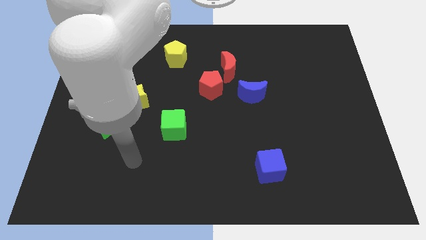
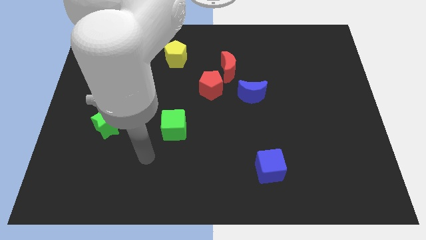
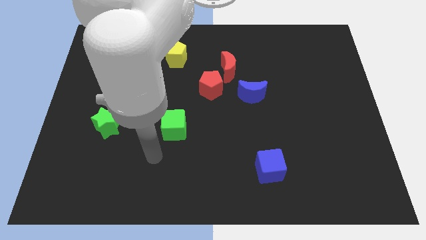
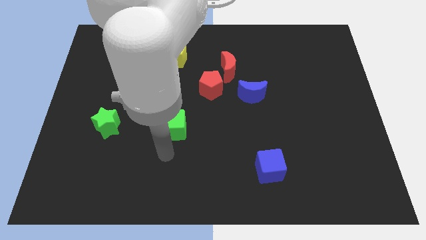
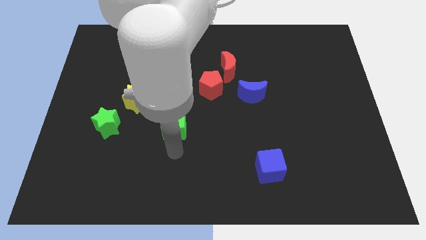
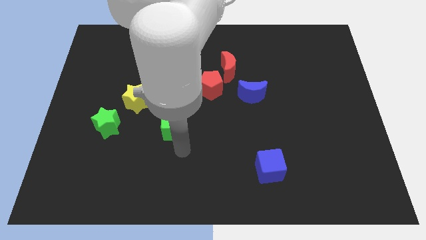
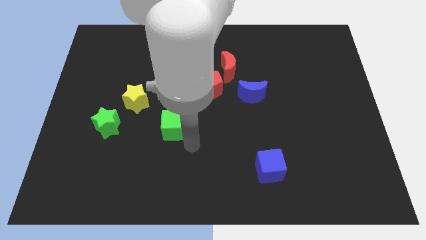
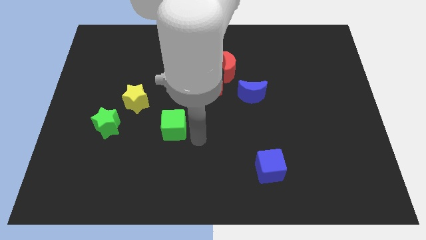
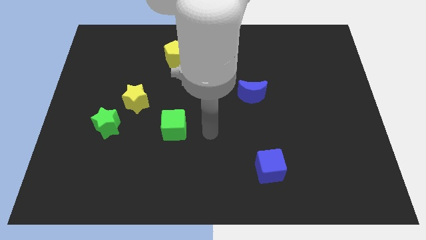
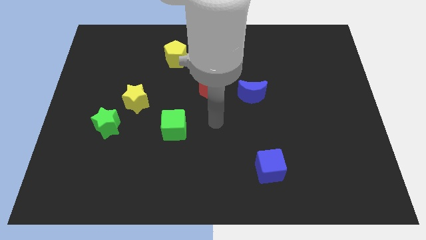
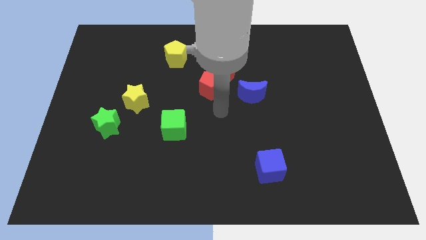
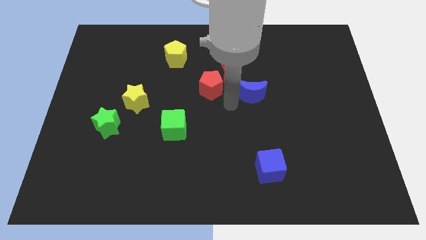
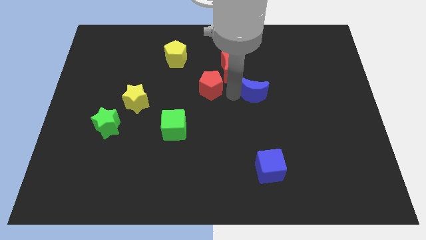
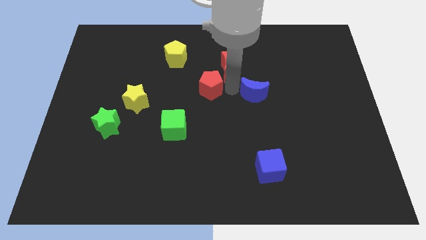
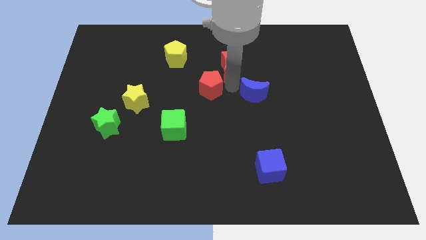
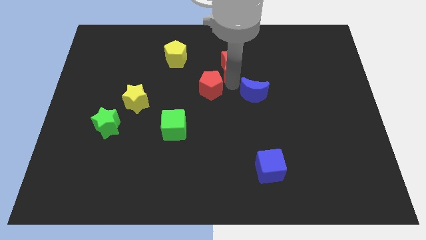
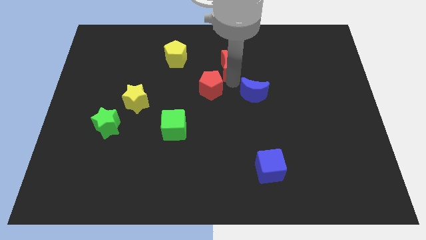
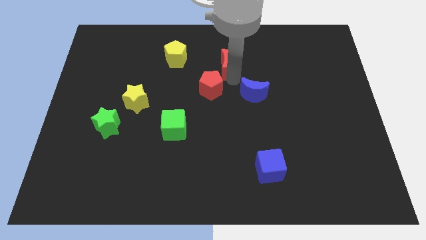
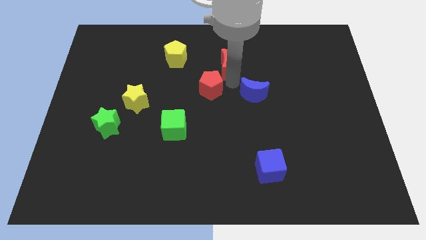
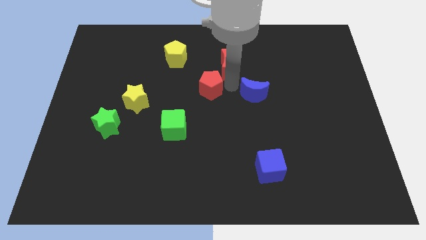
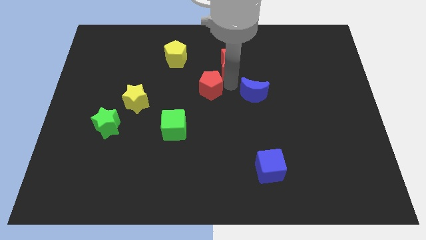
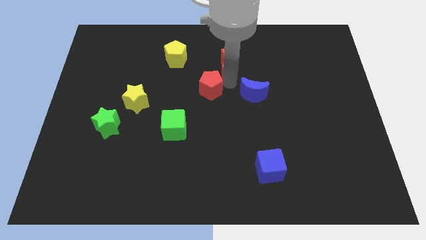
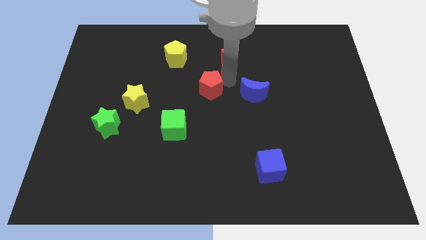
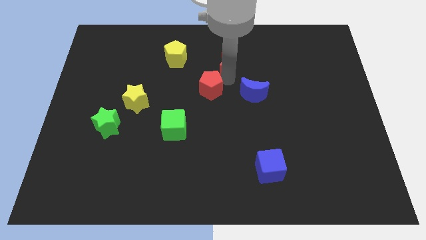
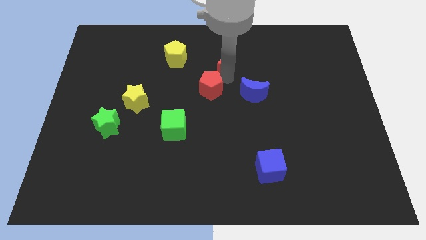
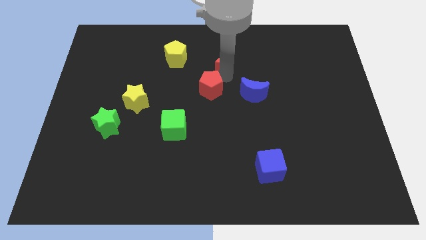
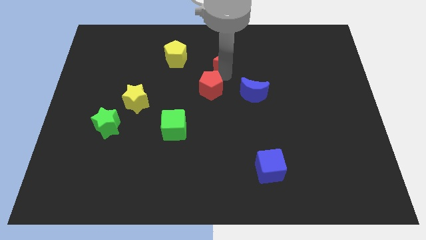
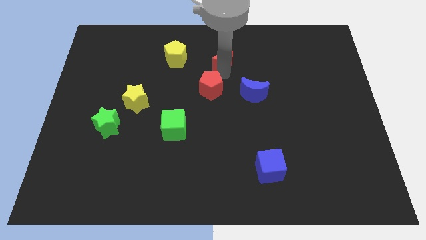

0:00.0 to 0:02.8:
move the red moon away from the red pentagon and blue moon

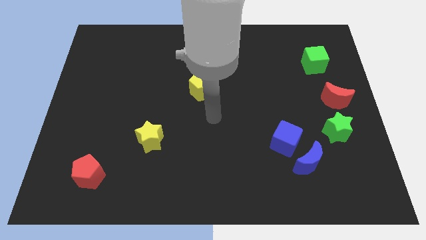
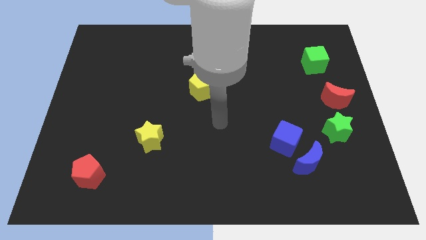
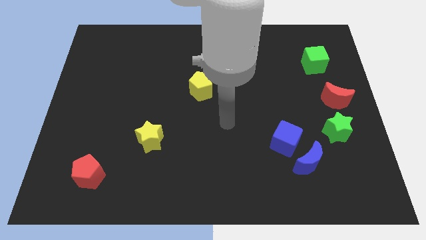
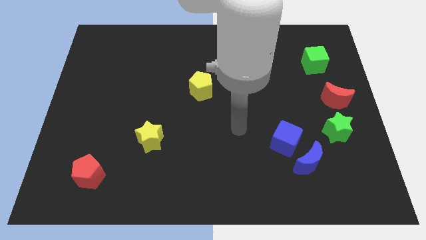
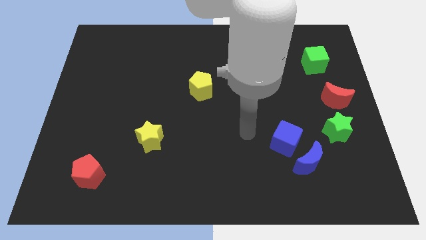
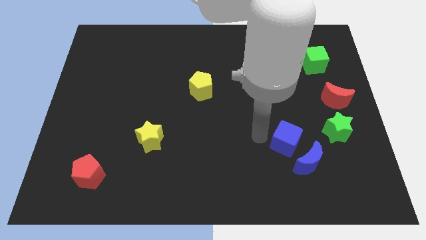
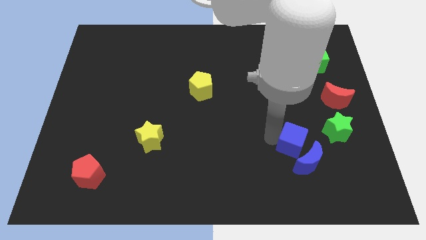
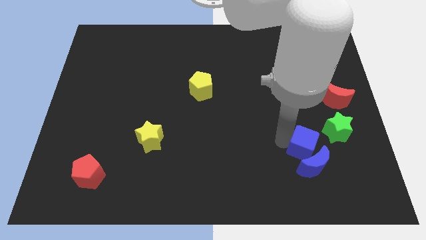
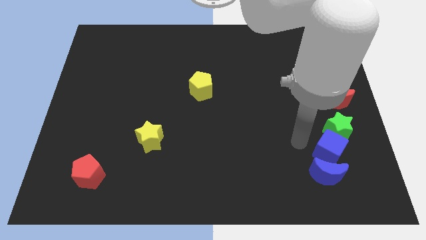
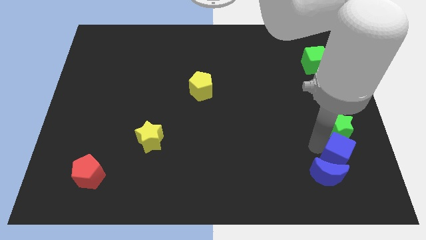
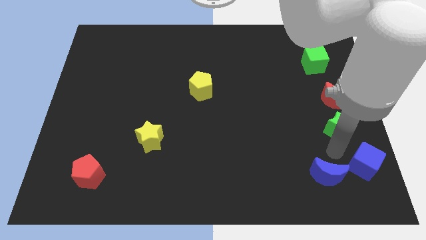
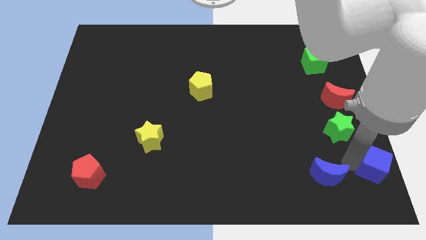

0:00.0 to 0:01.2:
separate the blue moon from the blue cube

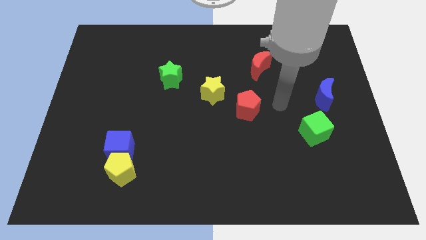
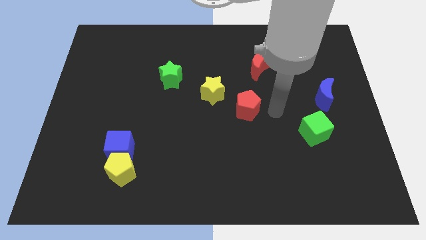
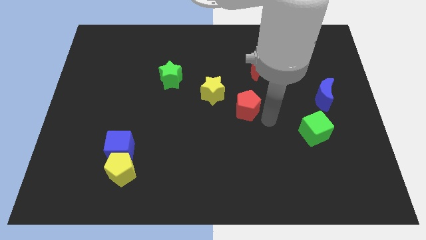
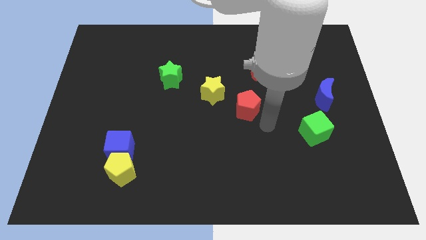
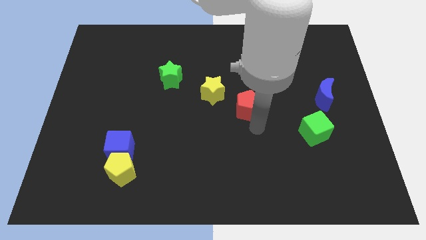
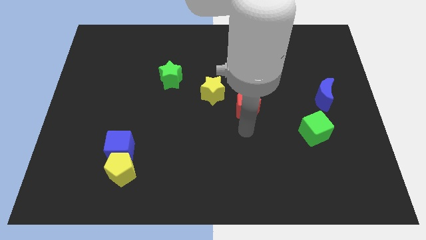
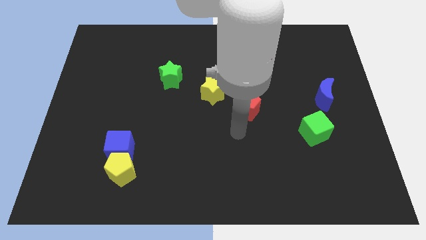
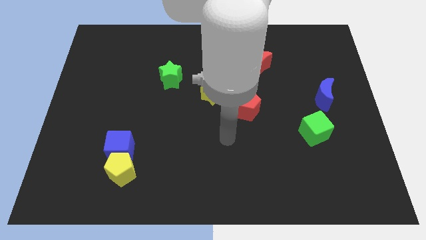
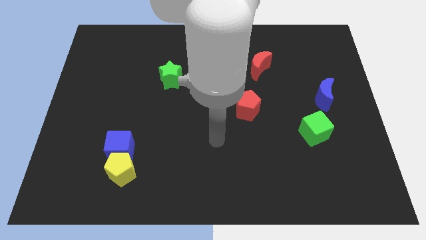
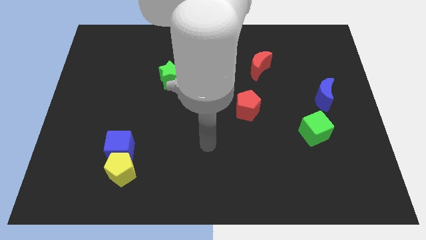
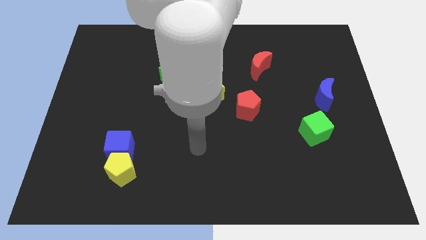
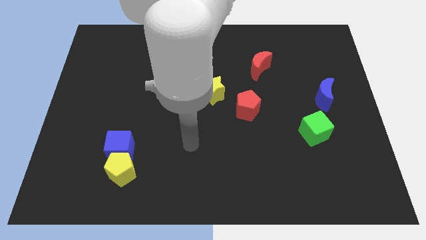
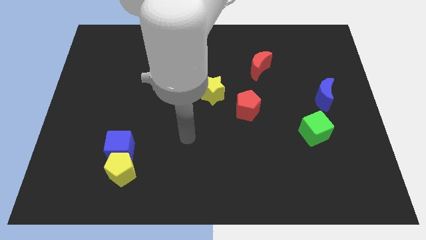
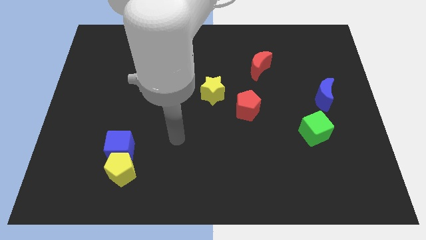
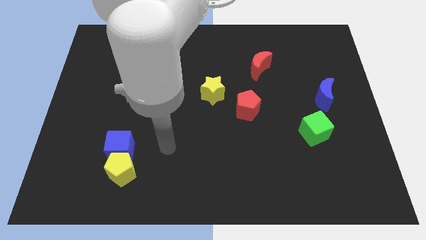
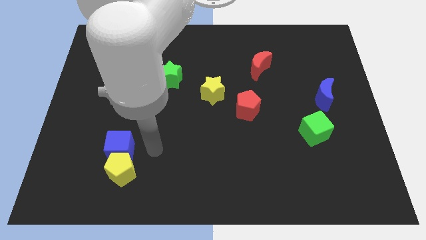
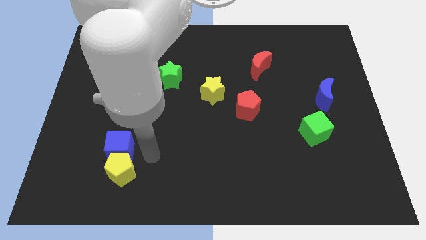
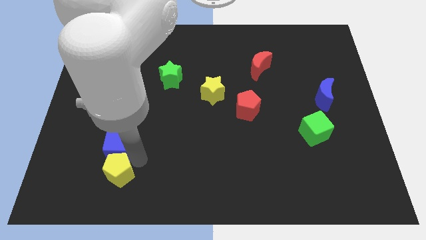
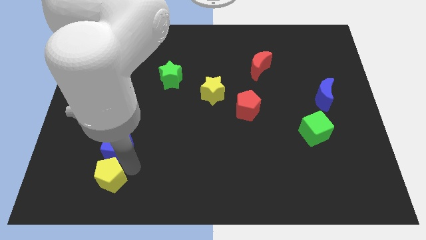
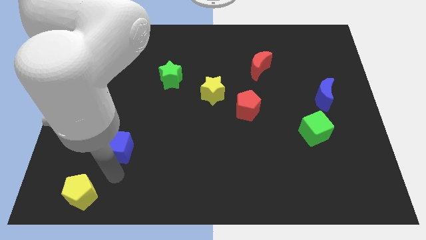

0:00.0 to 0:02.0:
move the blue cube away from the yellow pentagon

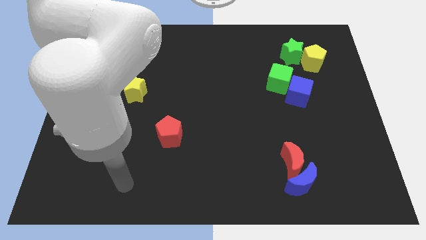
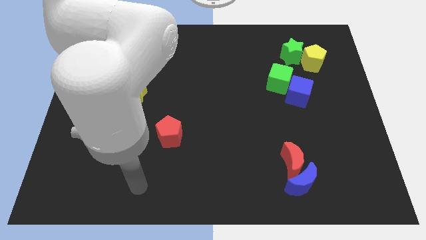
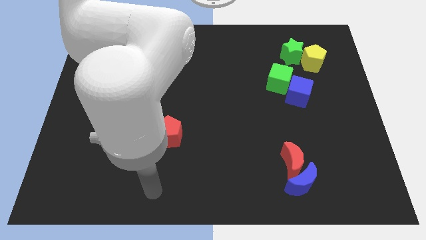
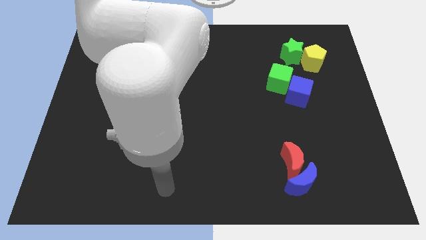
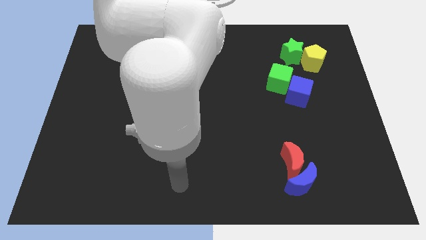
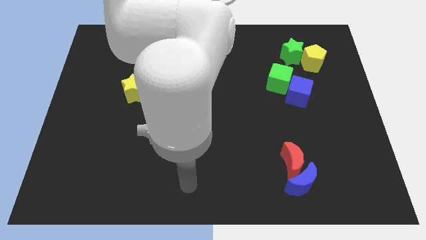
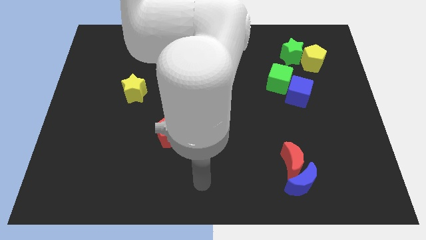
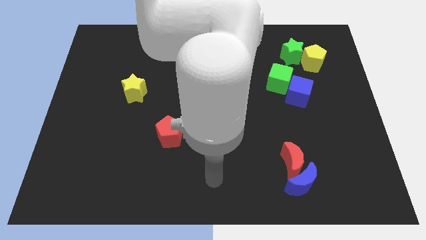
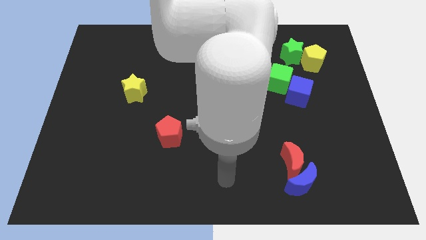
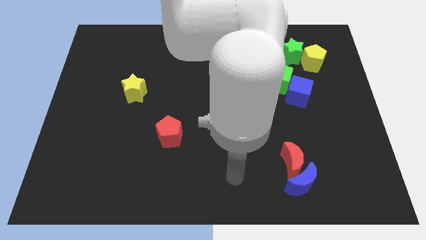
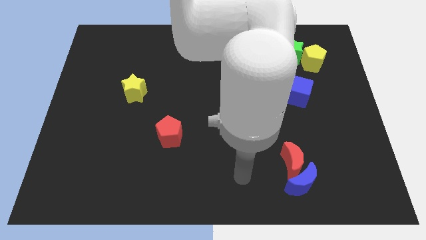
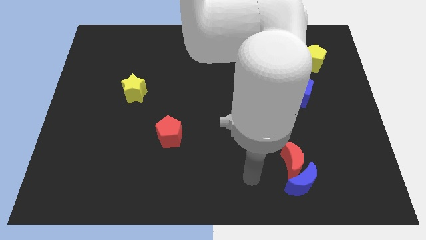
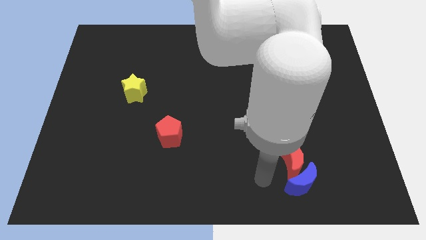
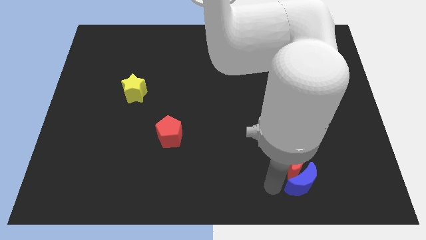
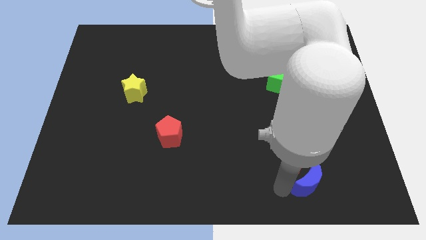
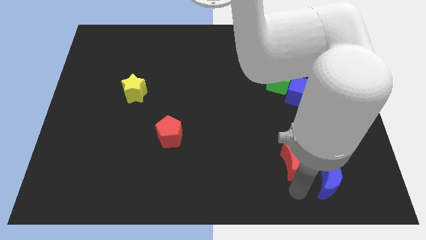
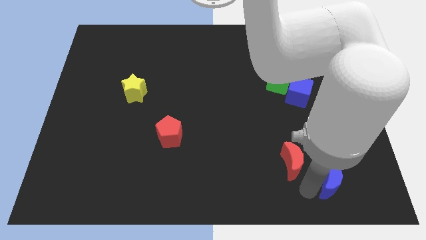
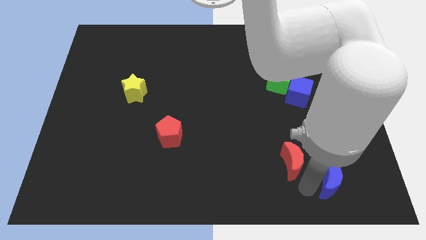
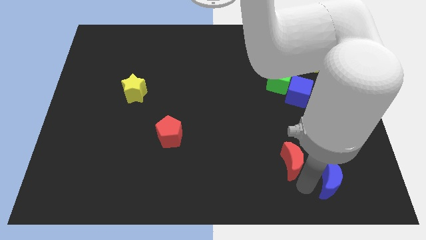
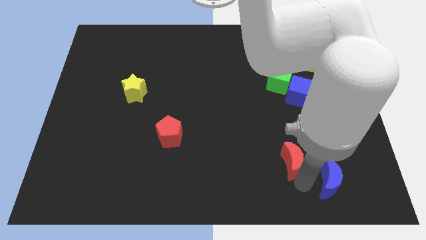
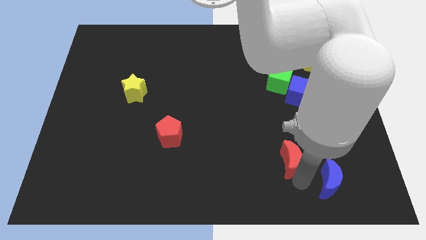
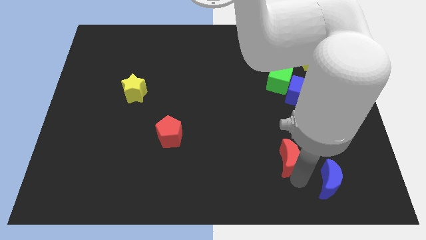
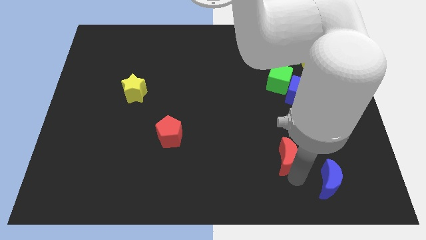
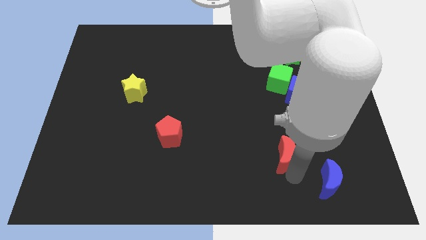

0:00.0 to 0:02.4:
separate the red moon from the blue moon

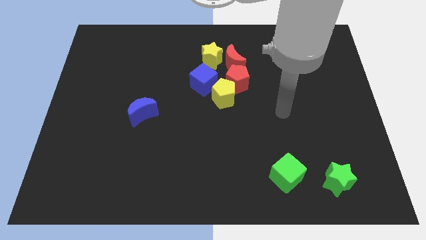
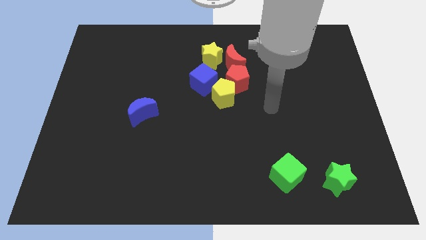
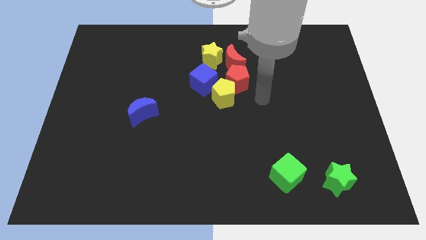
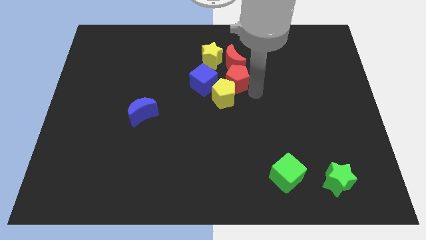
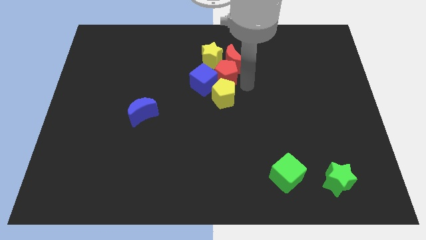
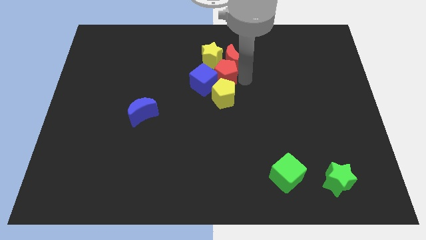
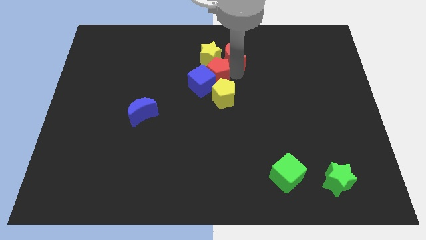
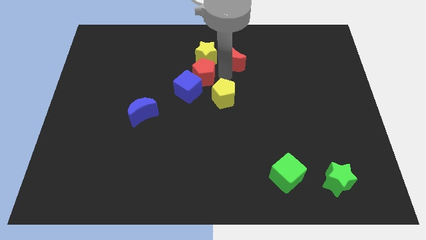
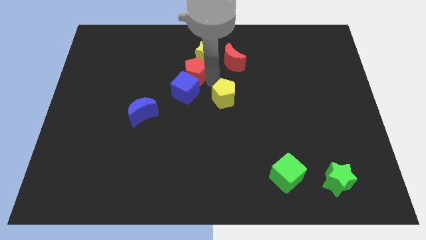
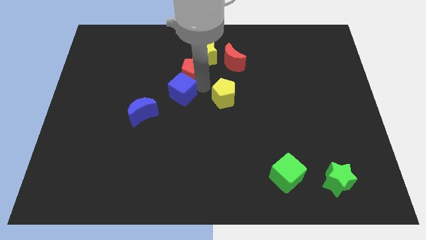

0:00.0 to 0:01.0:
separate the yellow pentagon from the red pentagon and blue cube
